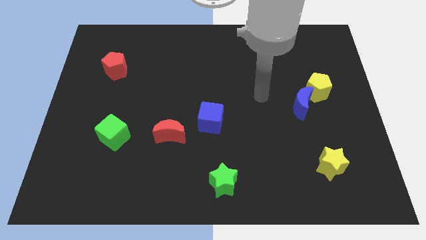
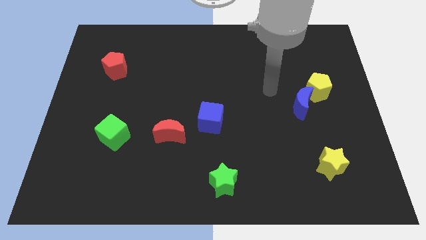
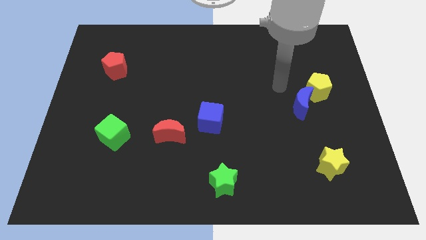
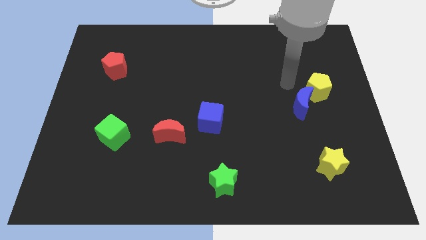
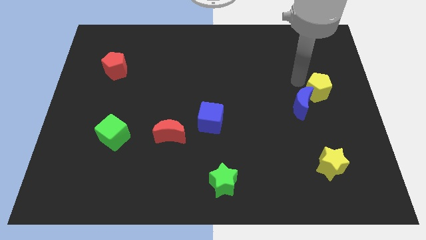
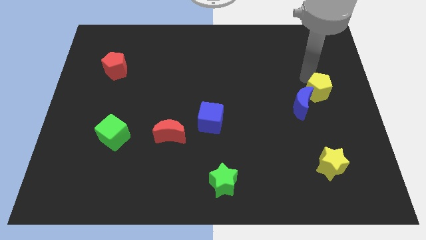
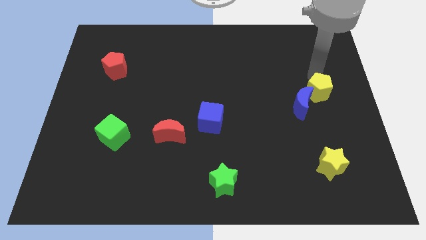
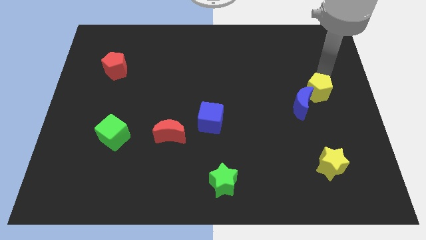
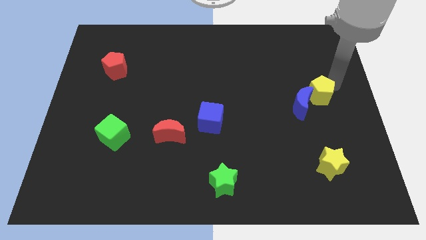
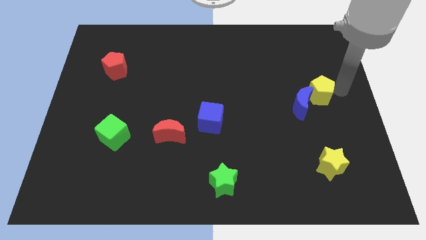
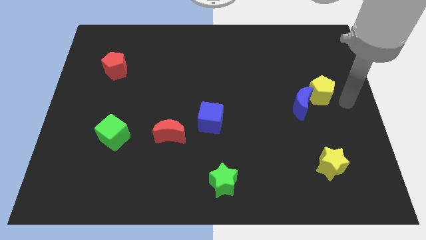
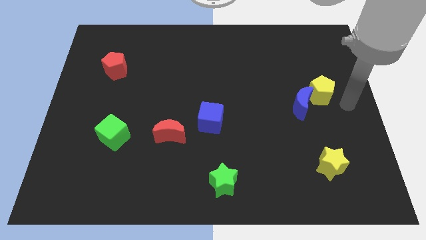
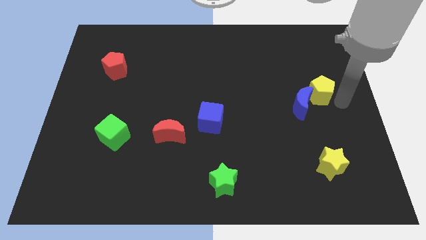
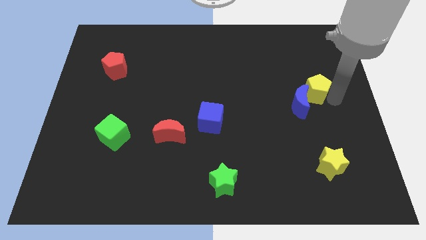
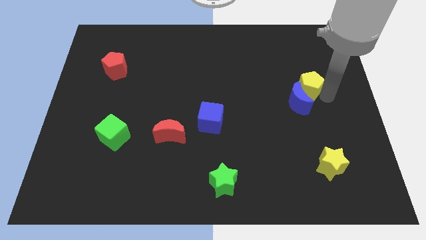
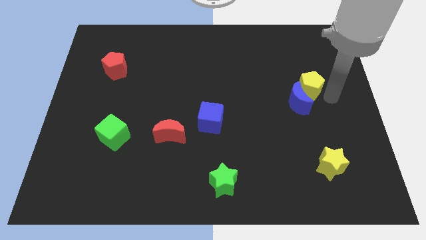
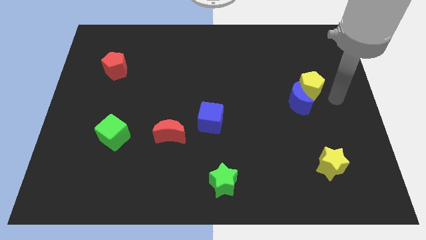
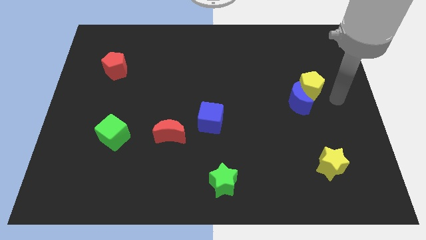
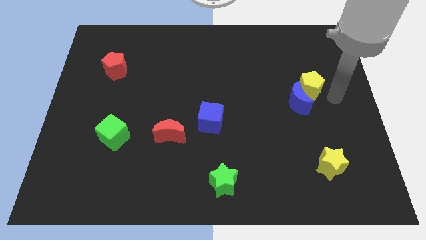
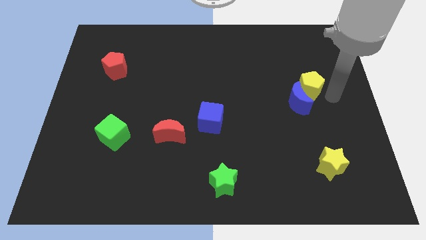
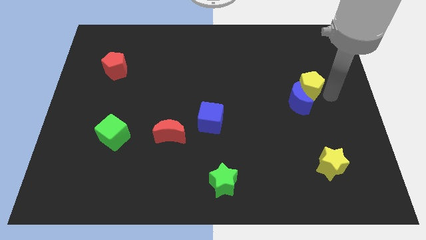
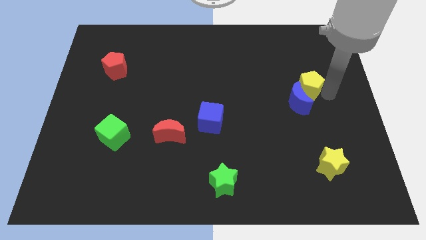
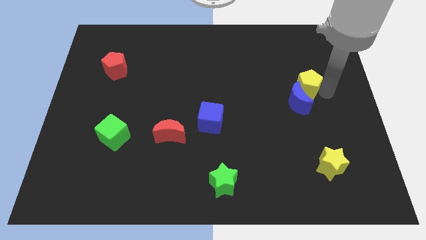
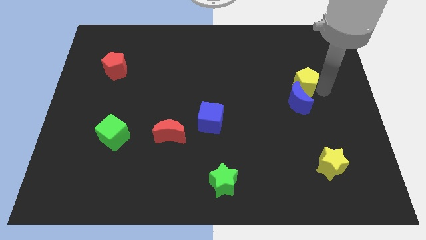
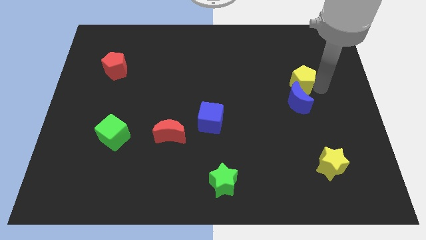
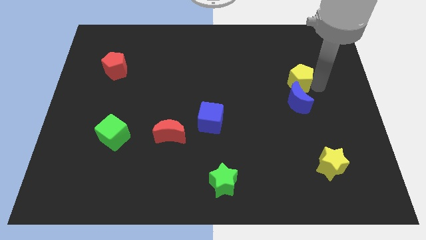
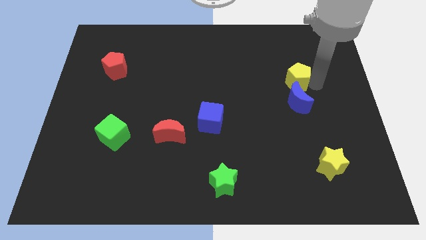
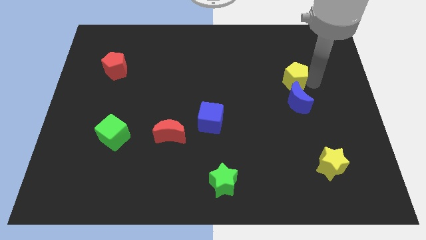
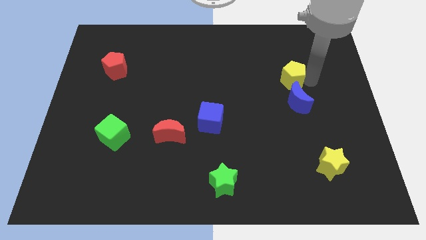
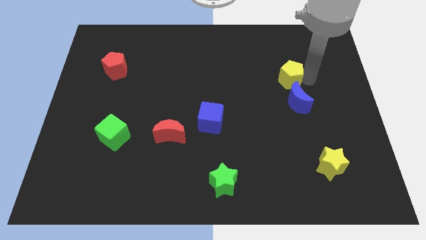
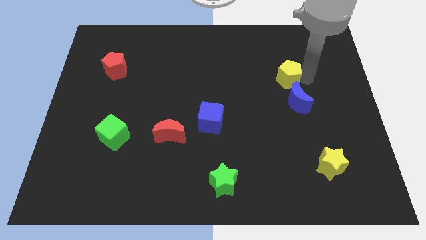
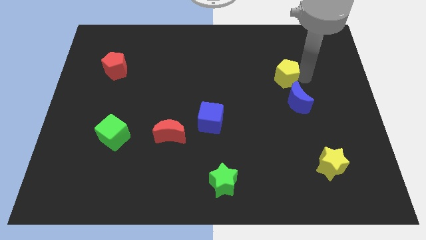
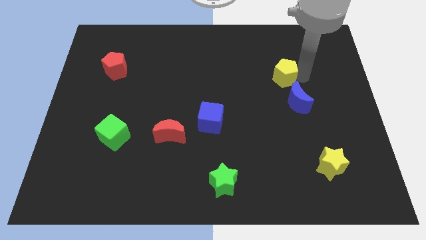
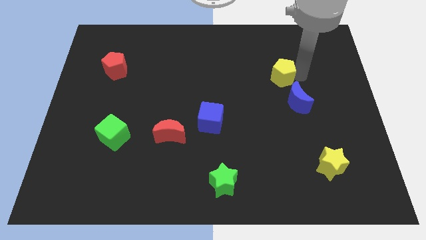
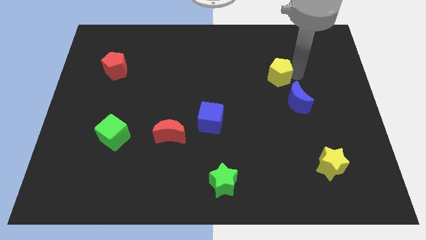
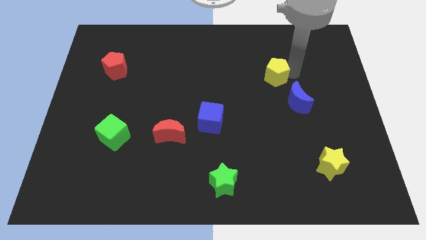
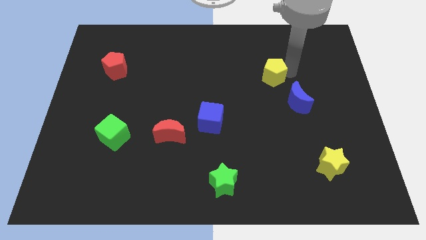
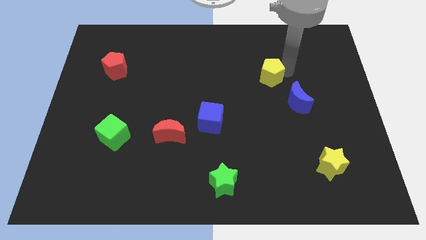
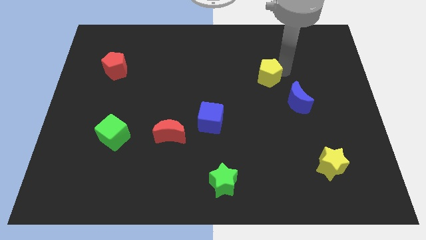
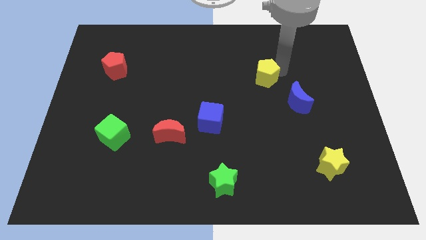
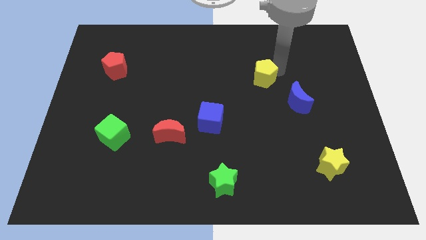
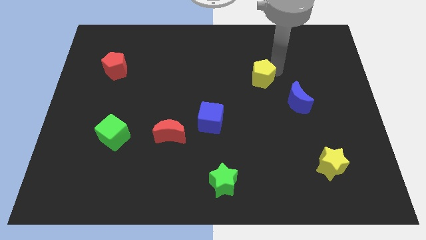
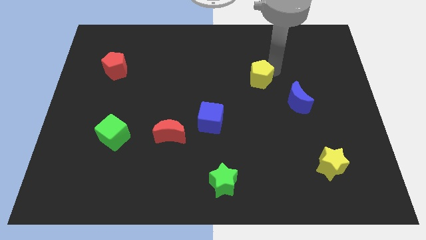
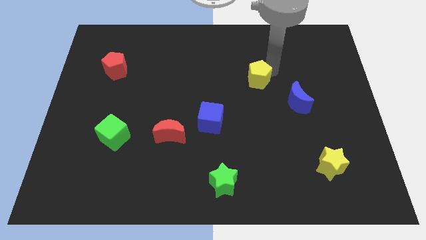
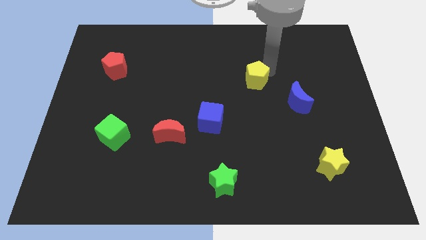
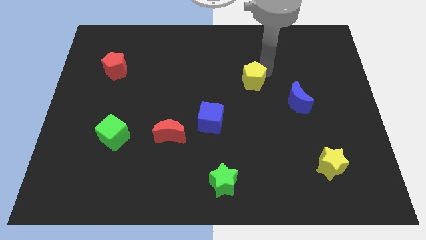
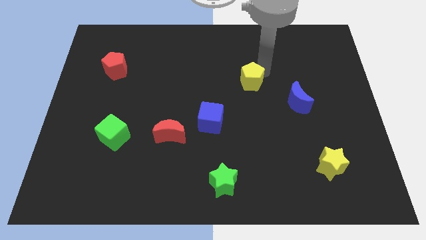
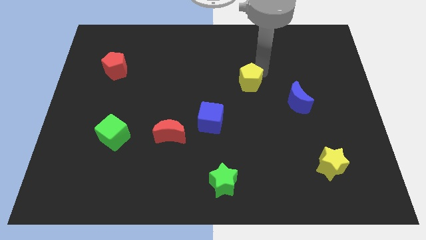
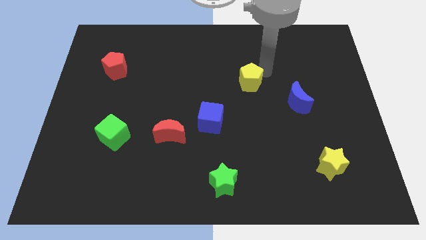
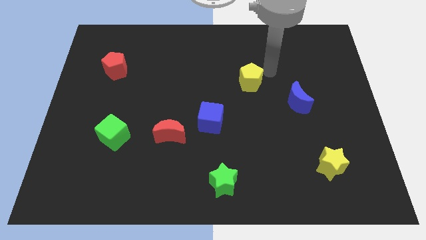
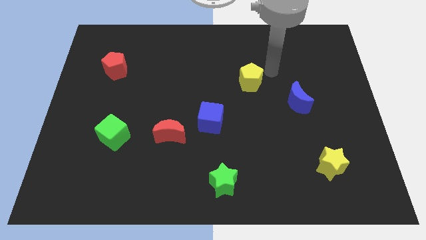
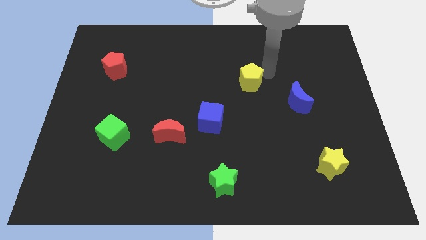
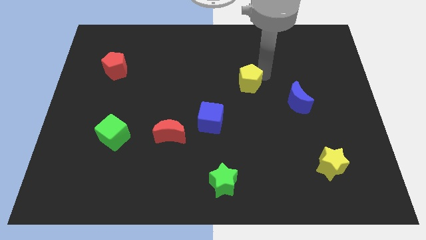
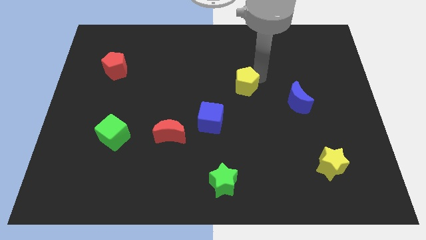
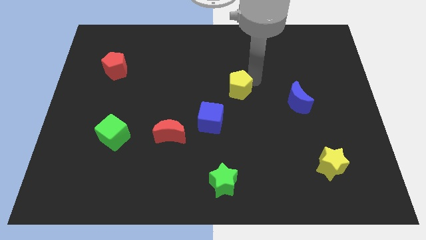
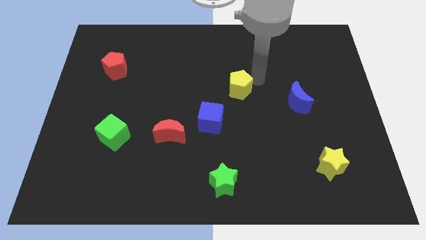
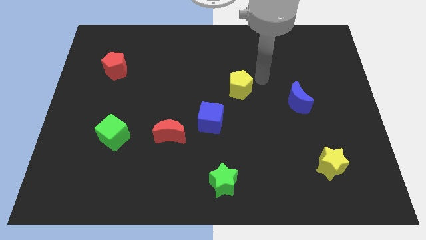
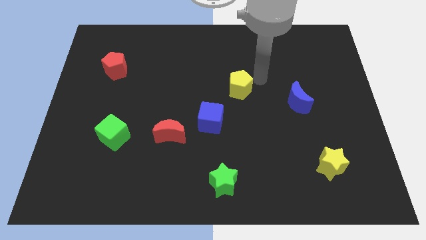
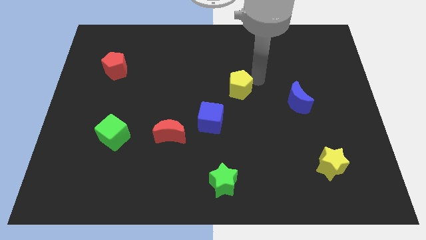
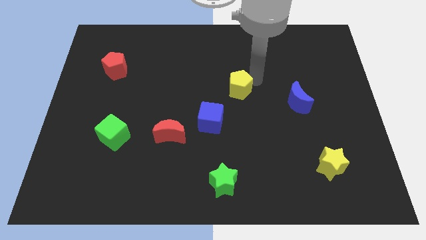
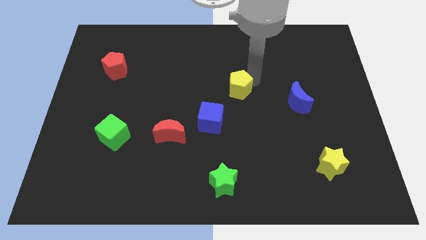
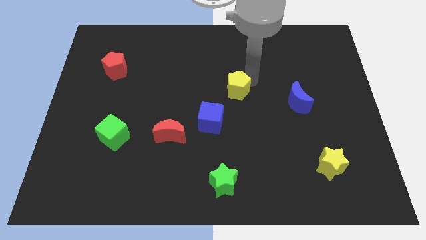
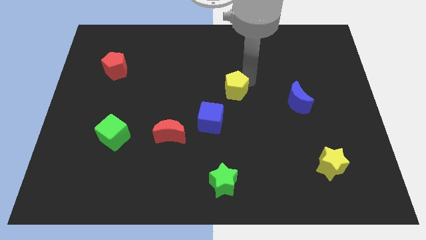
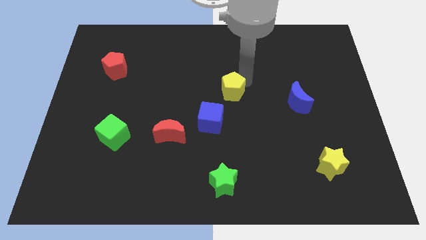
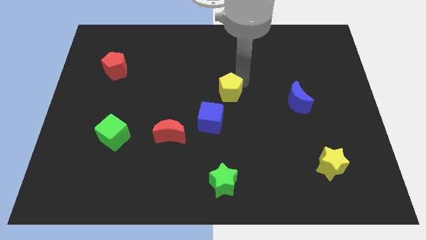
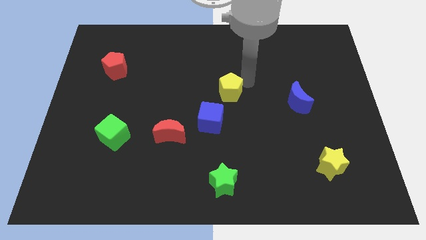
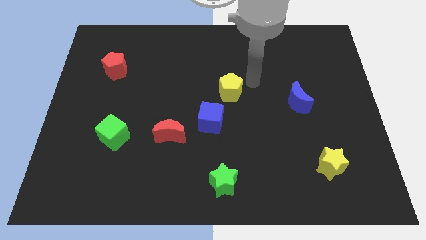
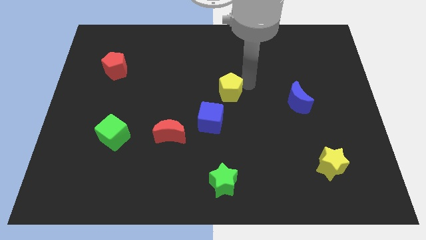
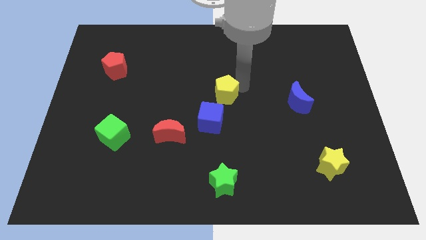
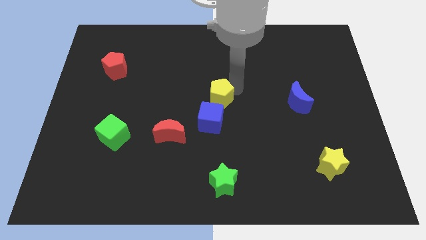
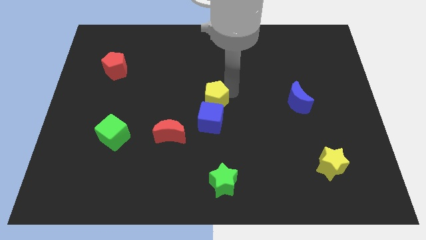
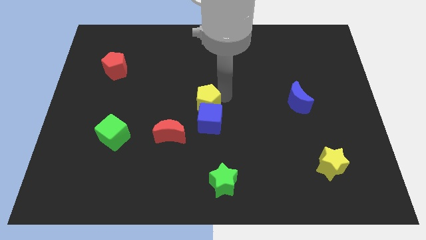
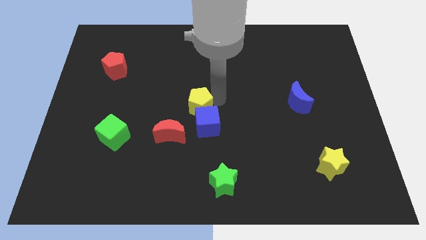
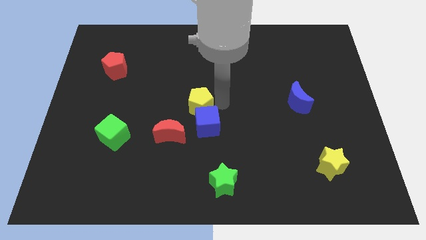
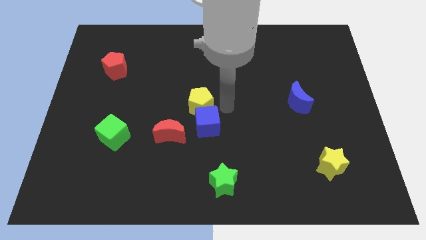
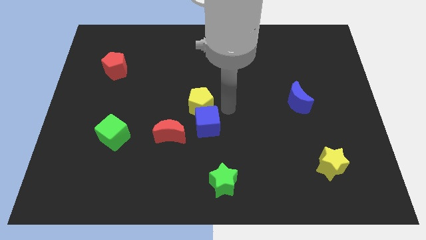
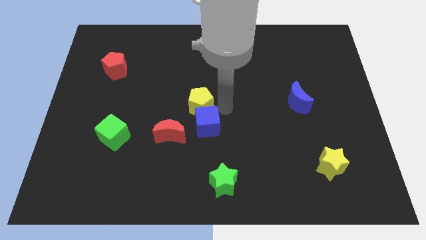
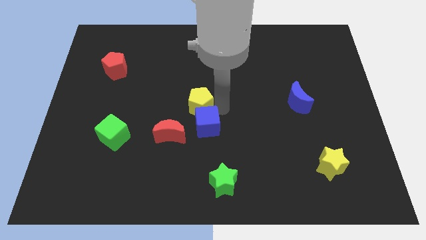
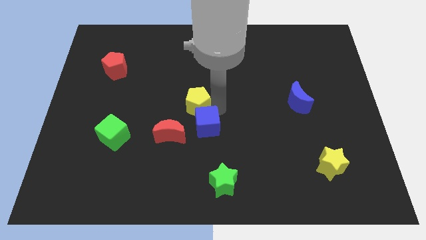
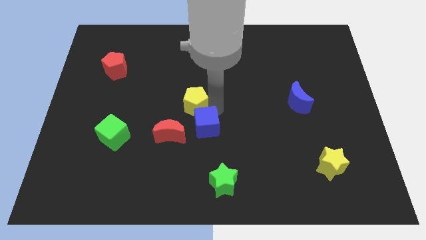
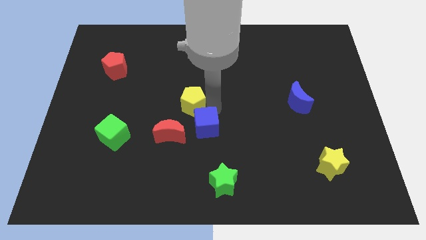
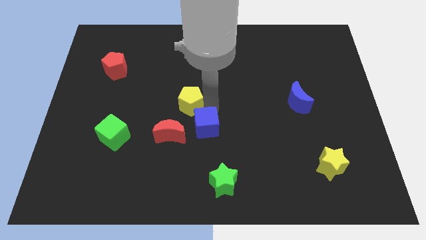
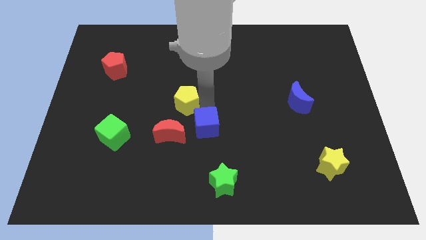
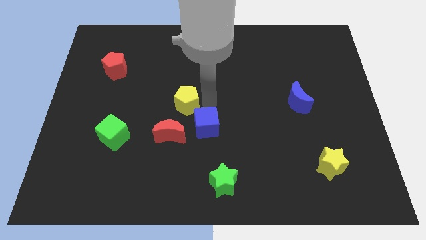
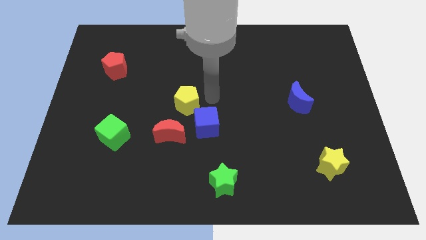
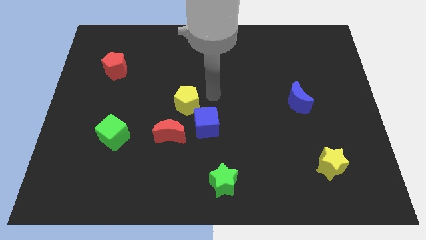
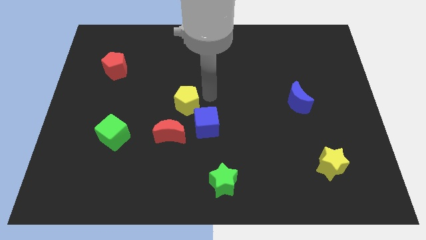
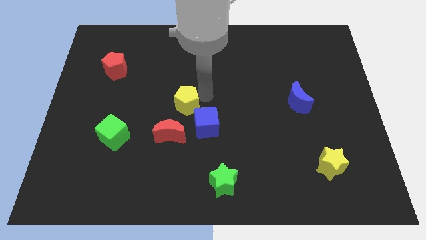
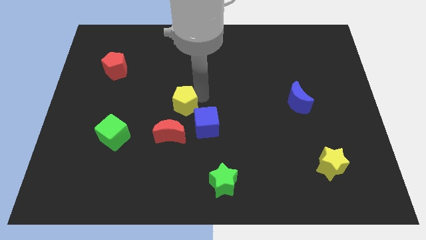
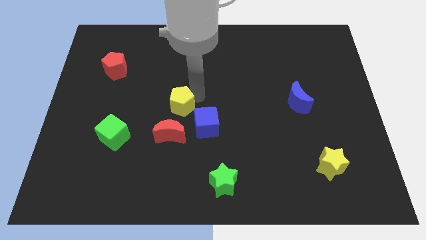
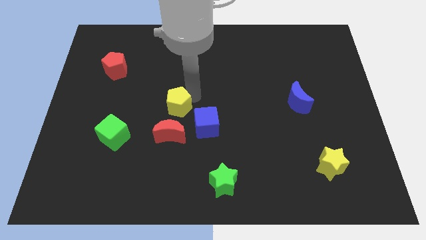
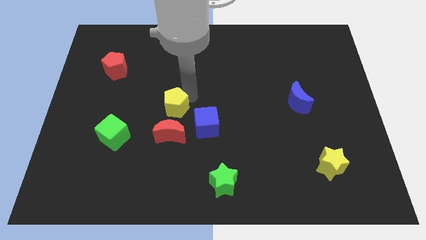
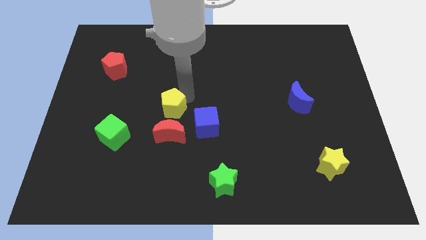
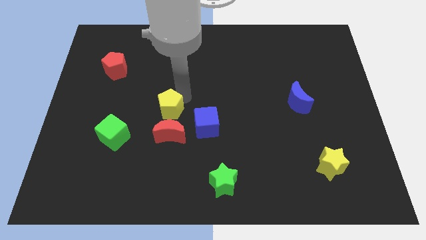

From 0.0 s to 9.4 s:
put the yellow pentagon to the top left of the red moon
